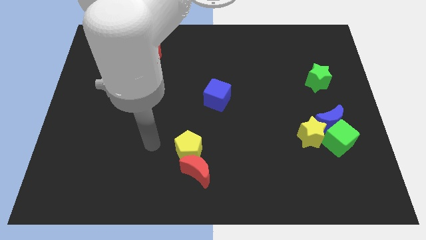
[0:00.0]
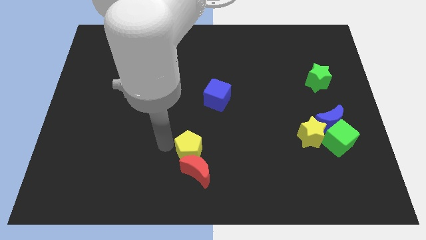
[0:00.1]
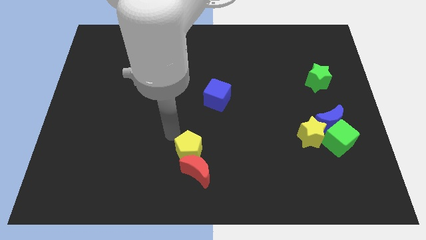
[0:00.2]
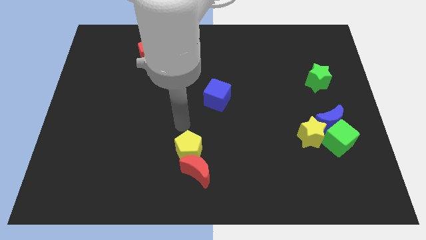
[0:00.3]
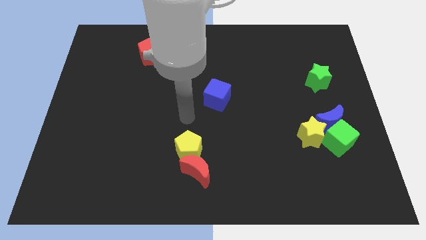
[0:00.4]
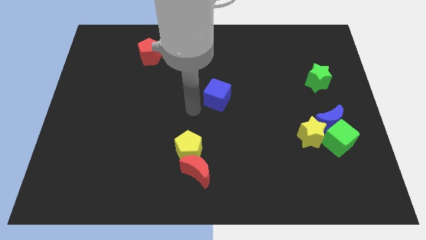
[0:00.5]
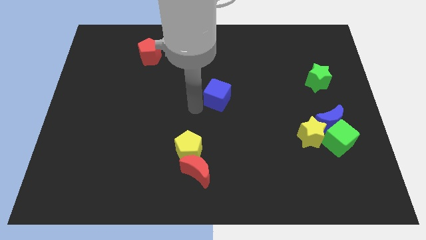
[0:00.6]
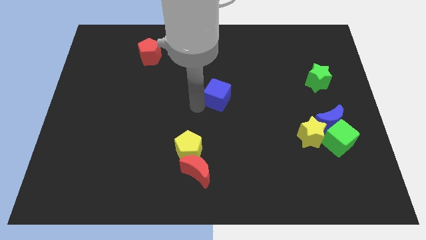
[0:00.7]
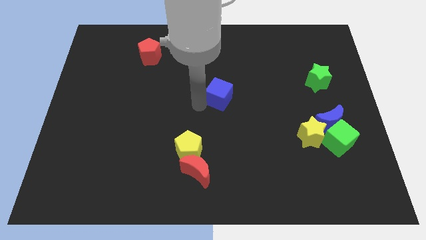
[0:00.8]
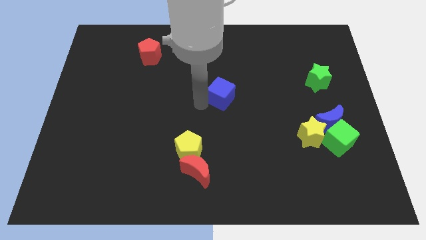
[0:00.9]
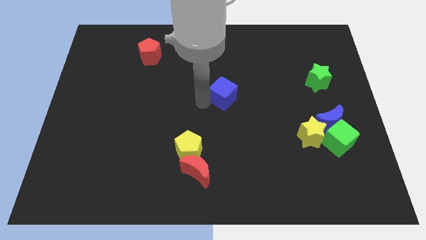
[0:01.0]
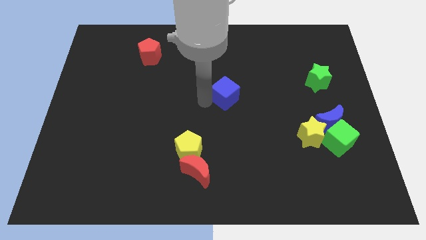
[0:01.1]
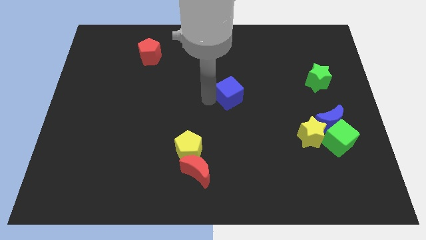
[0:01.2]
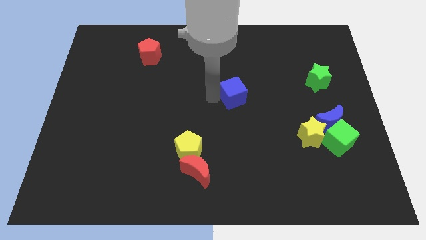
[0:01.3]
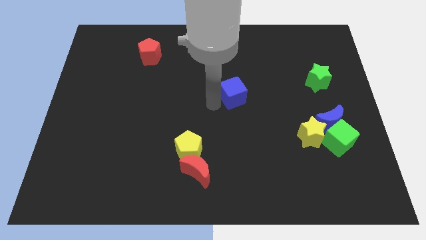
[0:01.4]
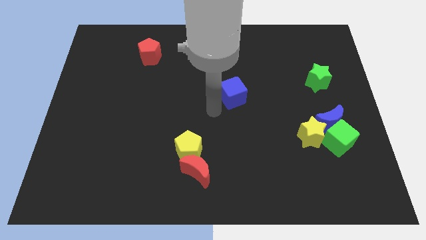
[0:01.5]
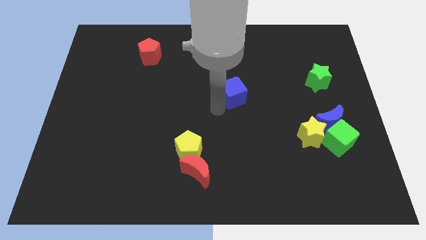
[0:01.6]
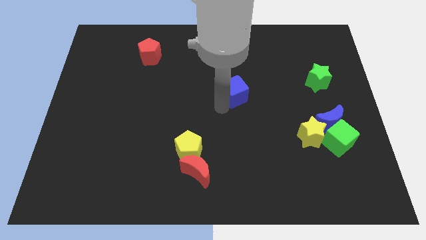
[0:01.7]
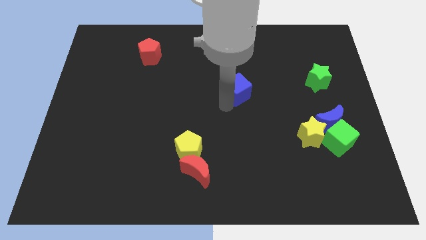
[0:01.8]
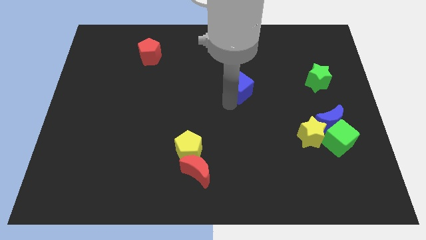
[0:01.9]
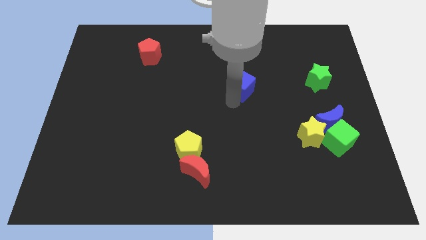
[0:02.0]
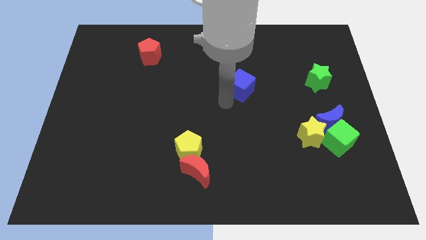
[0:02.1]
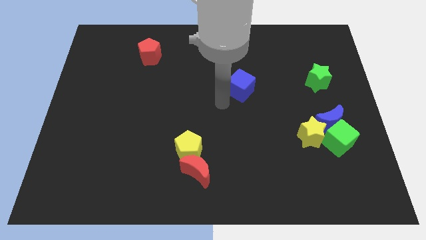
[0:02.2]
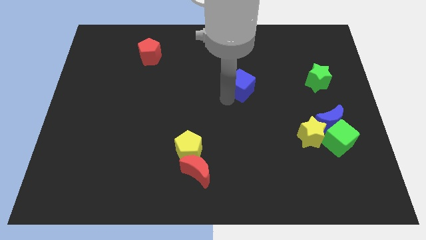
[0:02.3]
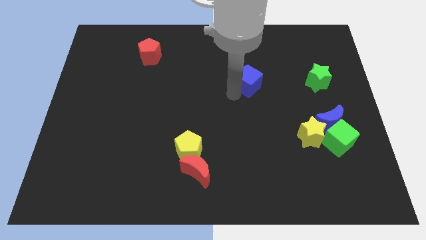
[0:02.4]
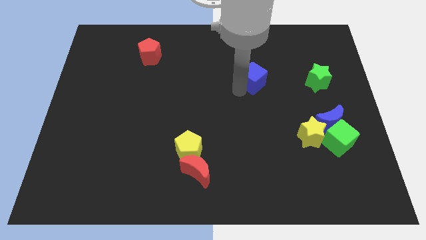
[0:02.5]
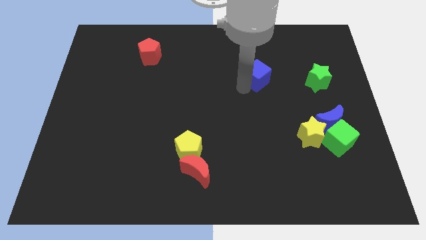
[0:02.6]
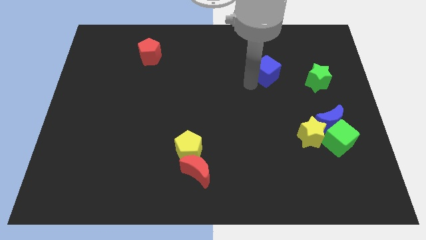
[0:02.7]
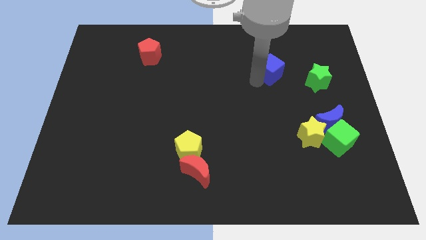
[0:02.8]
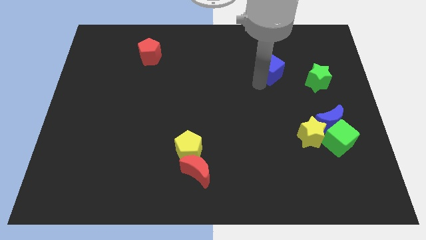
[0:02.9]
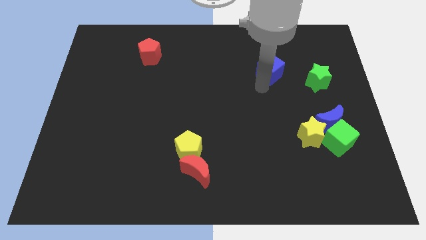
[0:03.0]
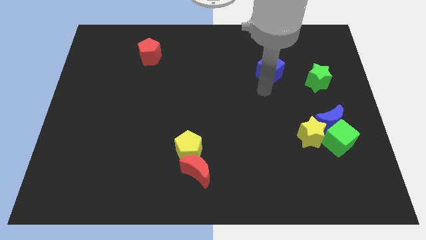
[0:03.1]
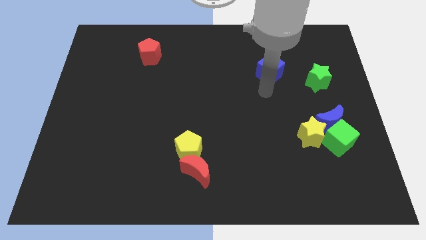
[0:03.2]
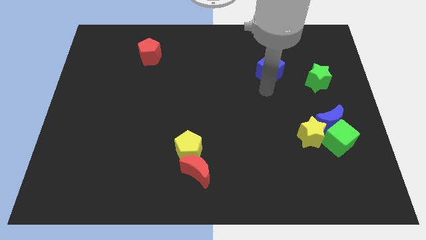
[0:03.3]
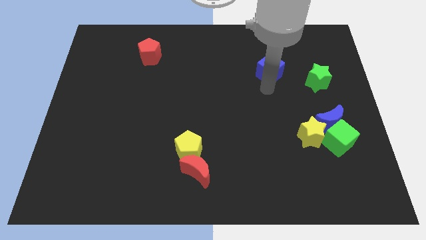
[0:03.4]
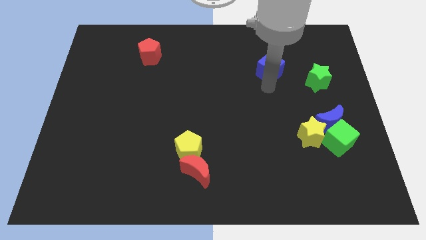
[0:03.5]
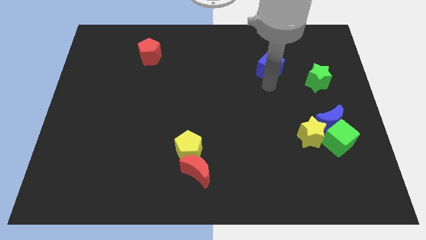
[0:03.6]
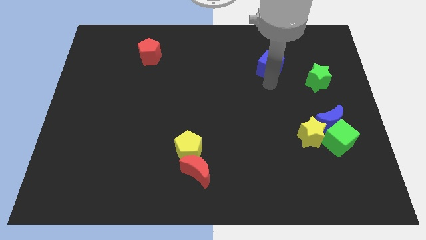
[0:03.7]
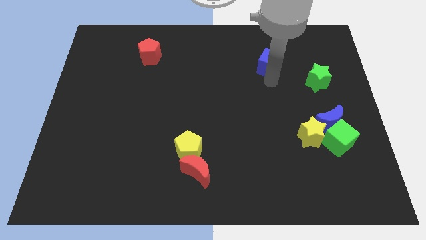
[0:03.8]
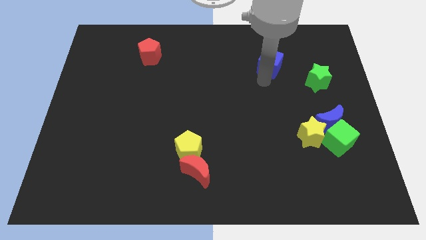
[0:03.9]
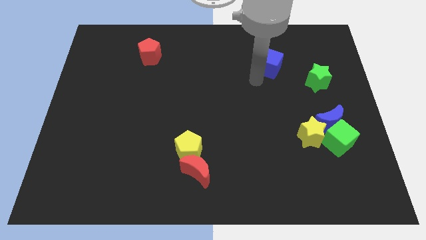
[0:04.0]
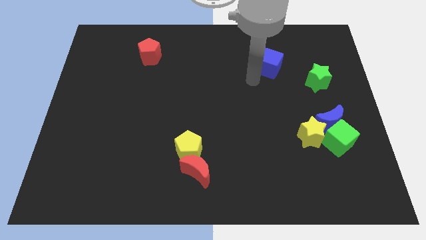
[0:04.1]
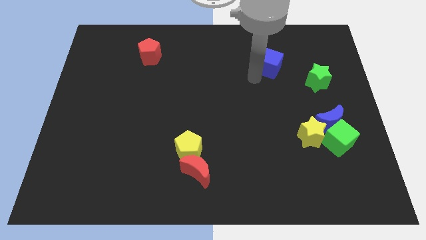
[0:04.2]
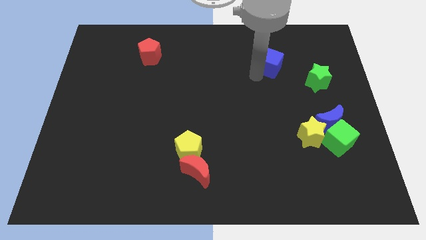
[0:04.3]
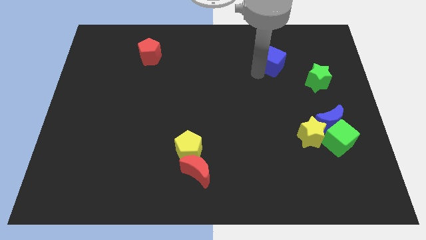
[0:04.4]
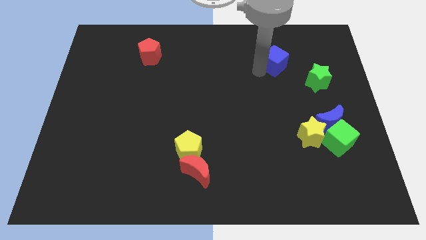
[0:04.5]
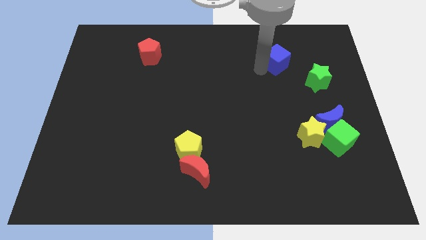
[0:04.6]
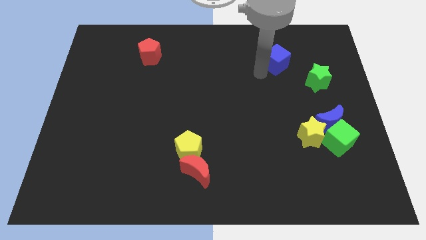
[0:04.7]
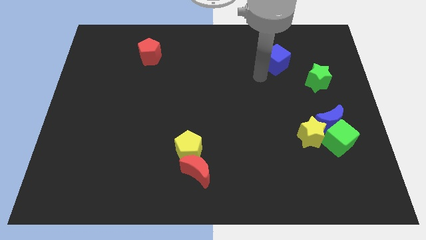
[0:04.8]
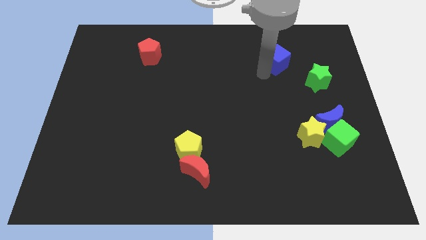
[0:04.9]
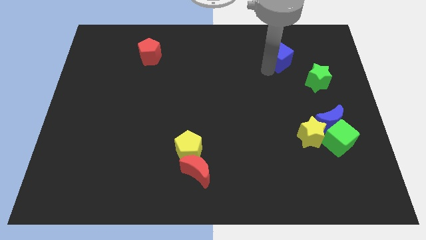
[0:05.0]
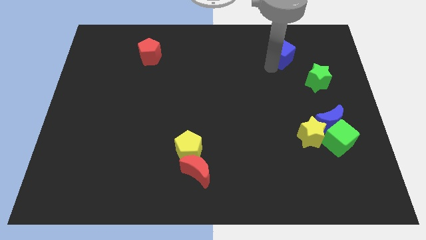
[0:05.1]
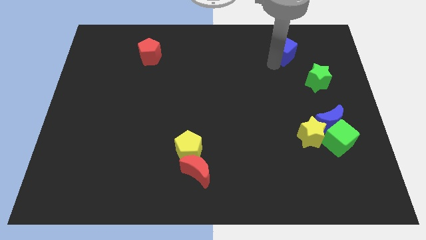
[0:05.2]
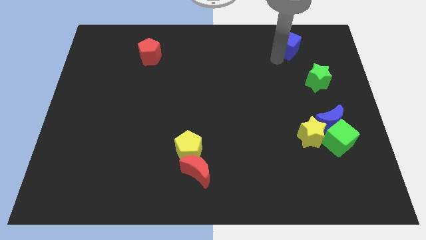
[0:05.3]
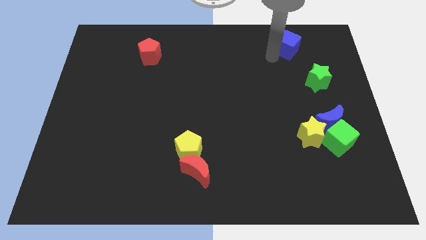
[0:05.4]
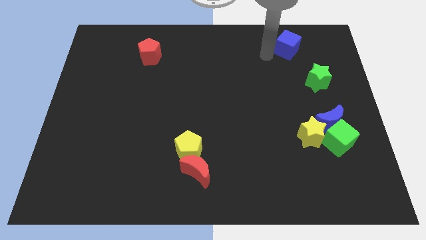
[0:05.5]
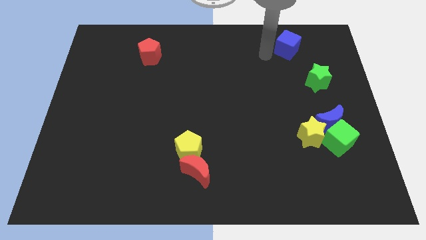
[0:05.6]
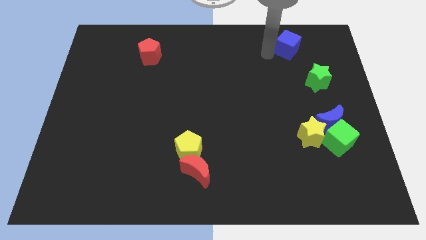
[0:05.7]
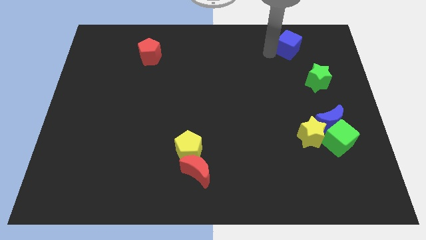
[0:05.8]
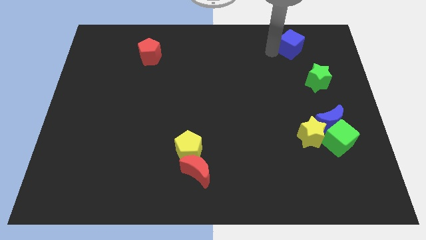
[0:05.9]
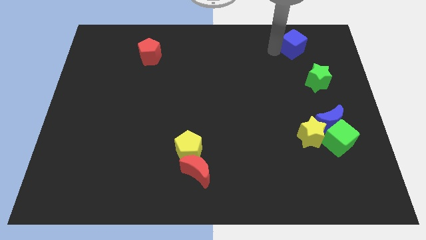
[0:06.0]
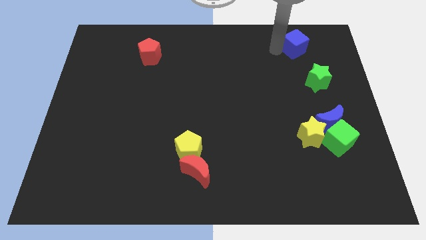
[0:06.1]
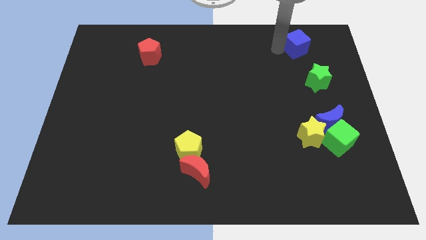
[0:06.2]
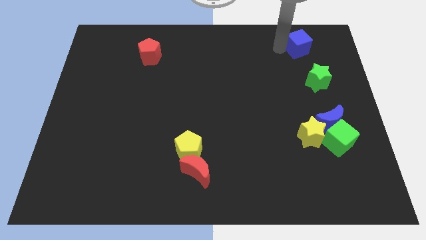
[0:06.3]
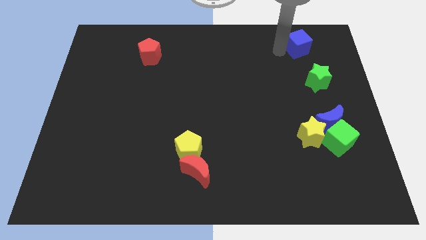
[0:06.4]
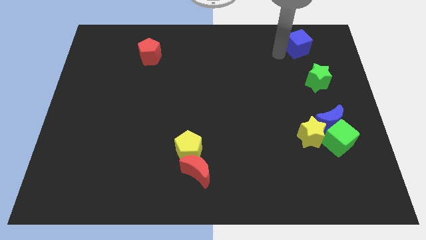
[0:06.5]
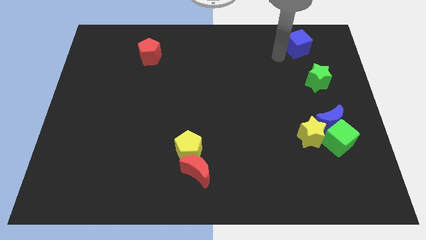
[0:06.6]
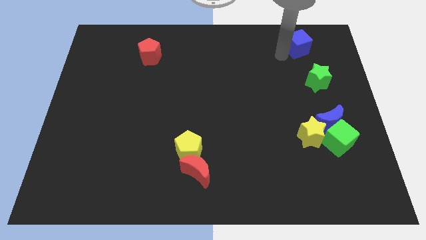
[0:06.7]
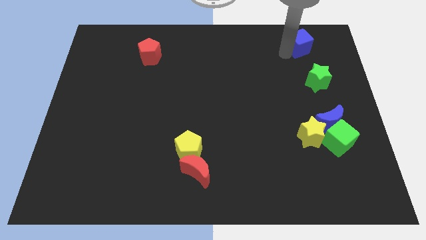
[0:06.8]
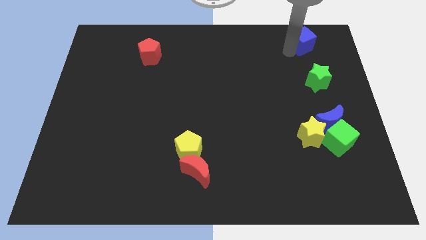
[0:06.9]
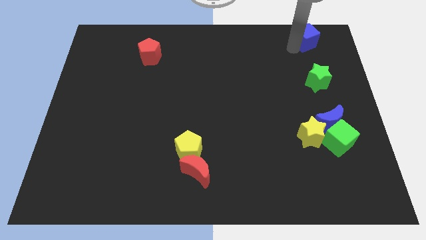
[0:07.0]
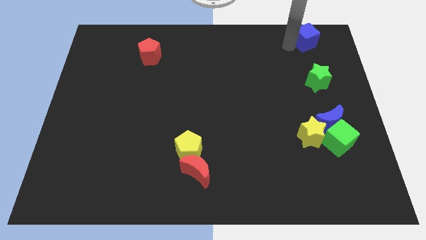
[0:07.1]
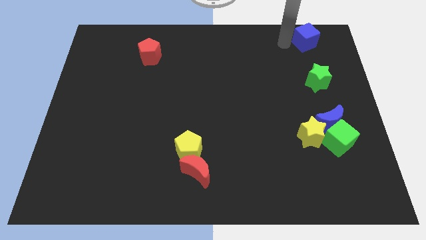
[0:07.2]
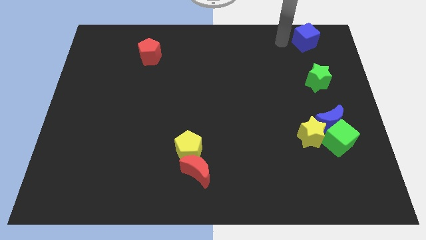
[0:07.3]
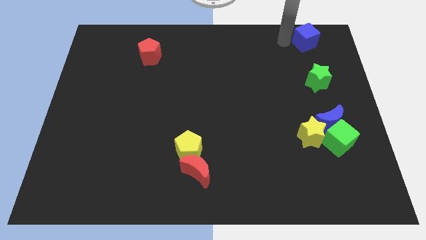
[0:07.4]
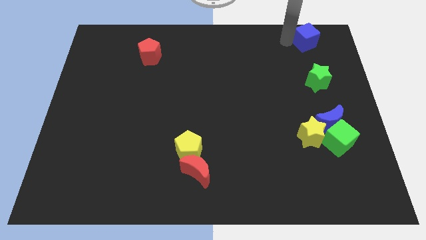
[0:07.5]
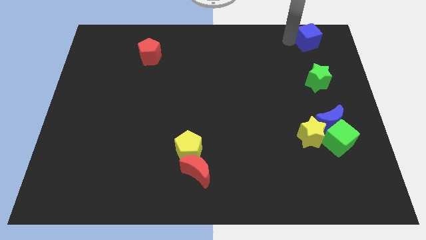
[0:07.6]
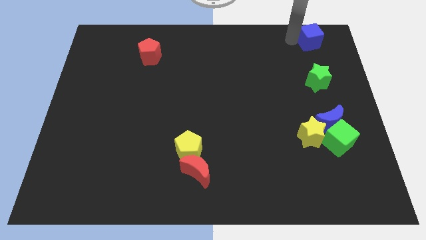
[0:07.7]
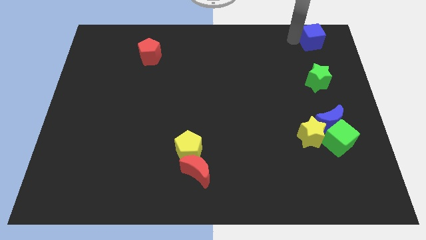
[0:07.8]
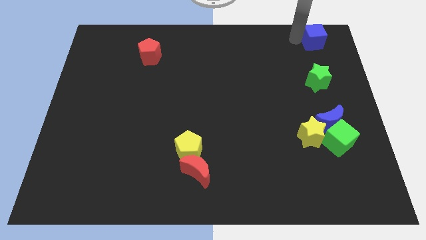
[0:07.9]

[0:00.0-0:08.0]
move the blue cube to the top right corner
